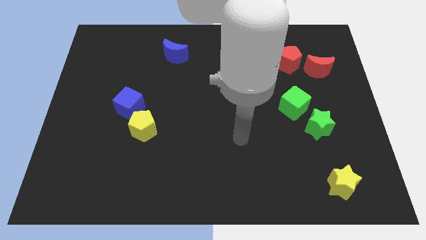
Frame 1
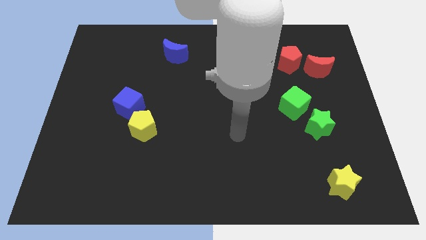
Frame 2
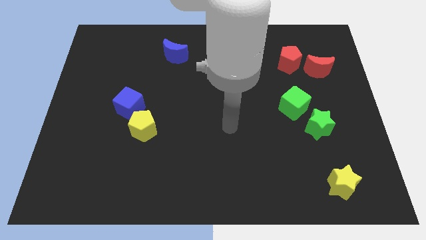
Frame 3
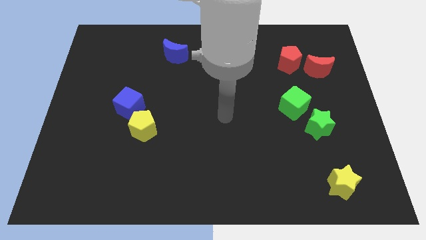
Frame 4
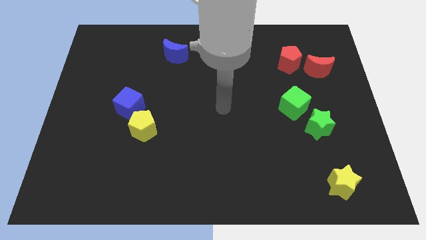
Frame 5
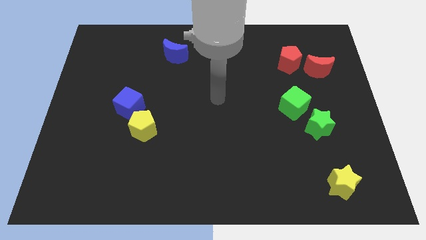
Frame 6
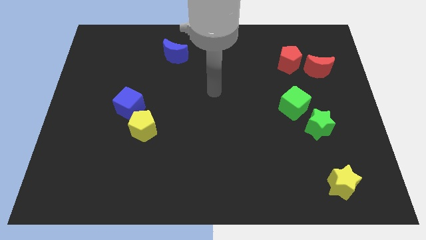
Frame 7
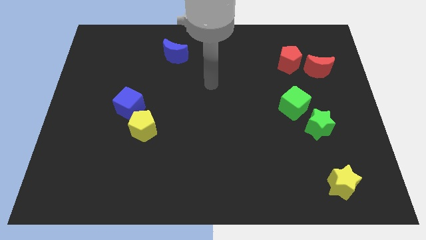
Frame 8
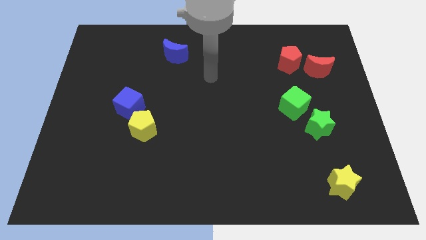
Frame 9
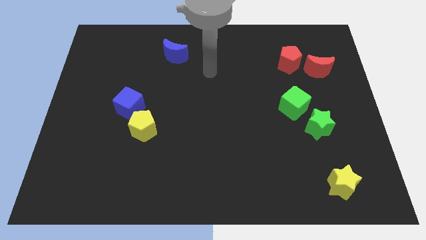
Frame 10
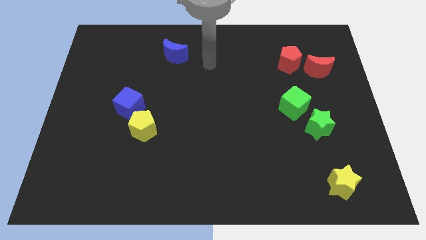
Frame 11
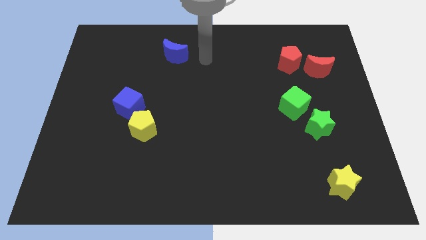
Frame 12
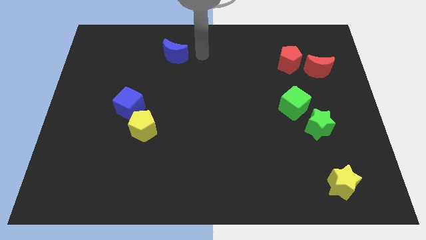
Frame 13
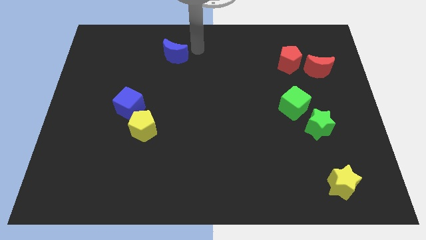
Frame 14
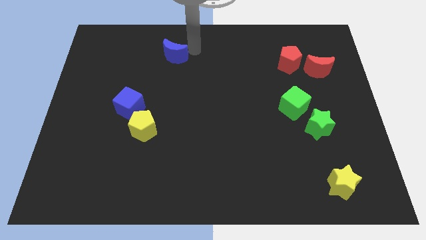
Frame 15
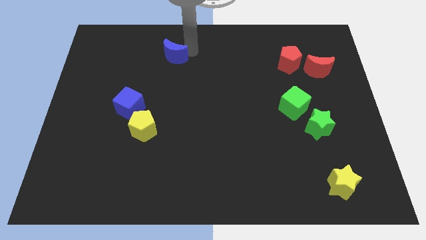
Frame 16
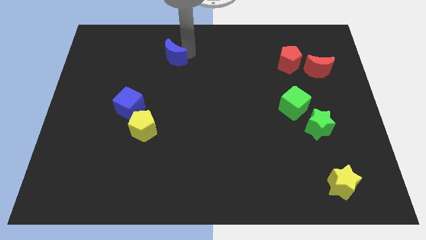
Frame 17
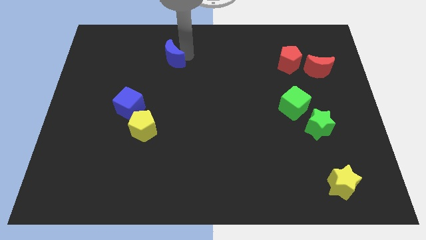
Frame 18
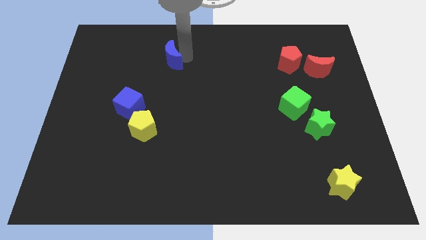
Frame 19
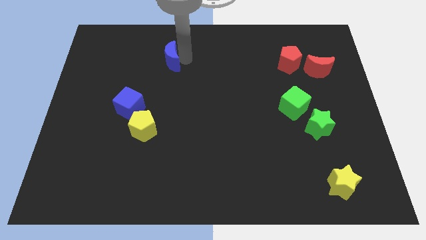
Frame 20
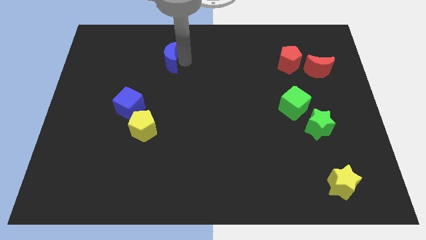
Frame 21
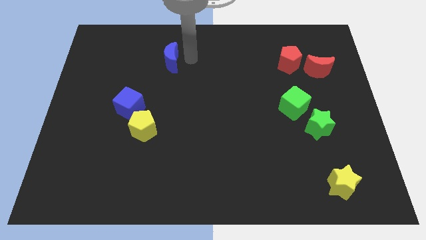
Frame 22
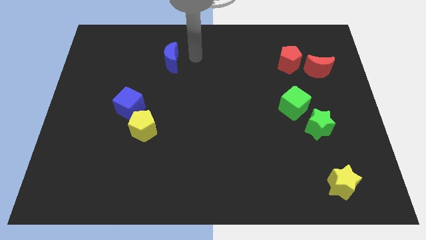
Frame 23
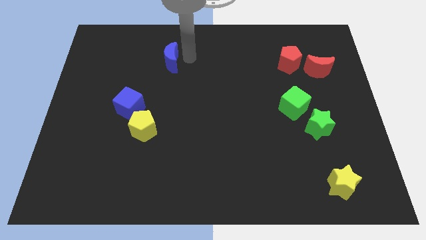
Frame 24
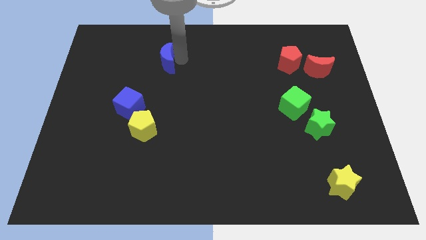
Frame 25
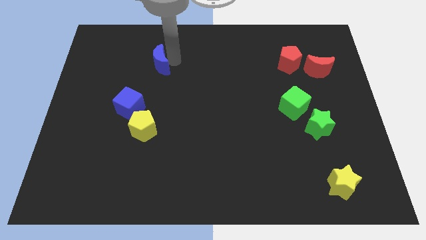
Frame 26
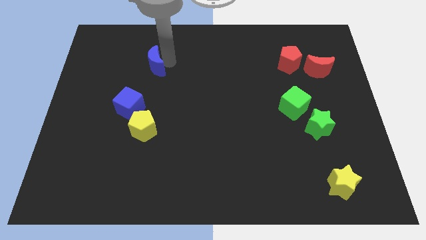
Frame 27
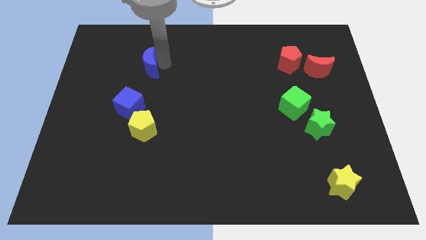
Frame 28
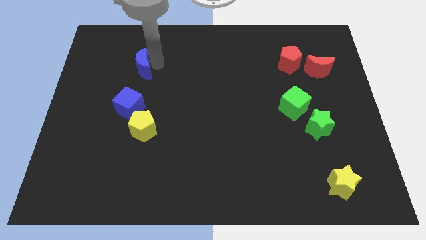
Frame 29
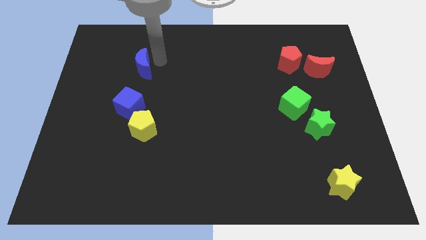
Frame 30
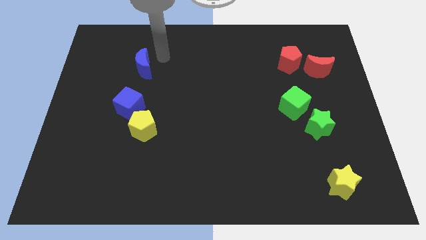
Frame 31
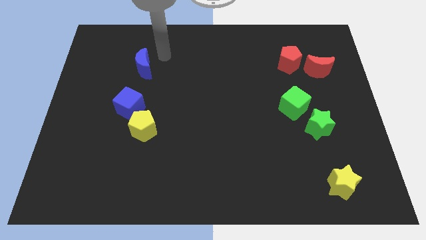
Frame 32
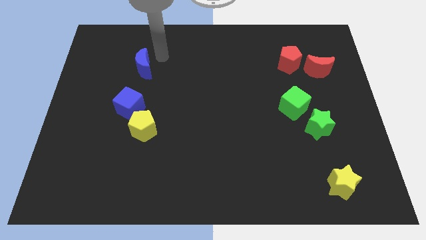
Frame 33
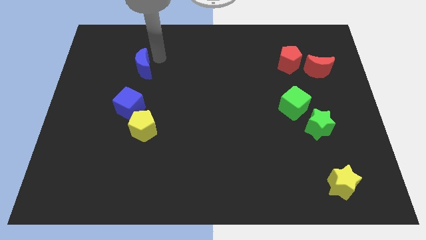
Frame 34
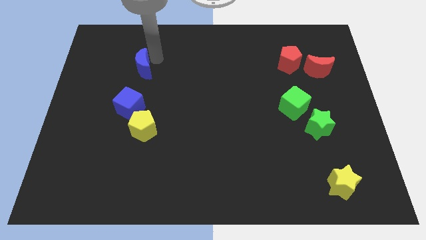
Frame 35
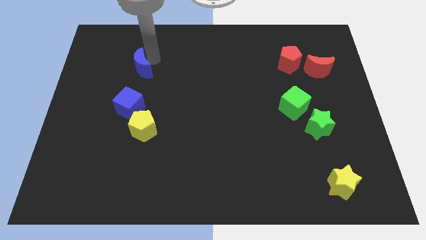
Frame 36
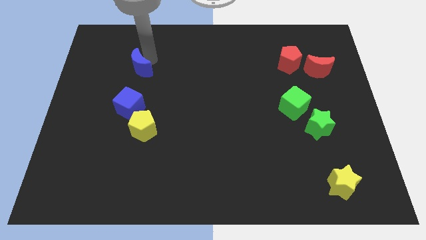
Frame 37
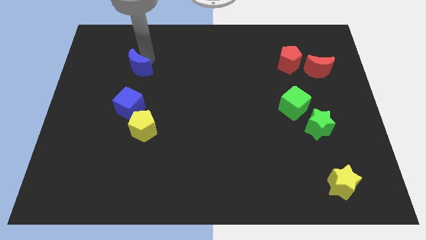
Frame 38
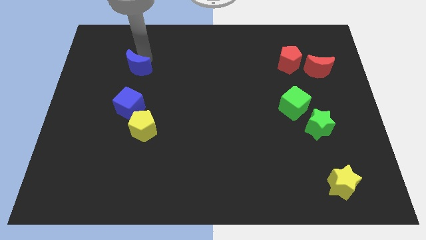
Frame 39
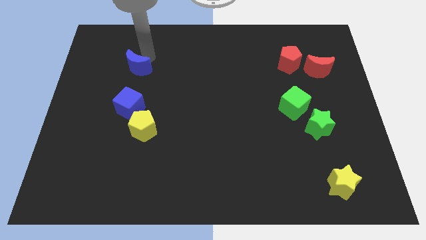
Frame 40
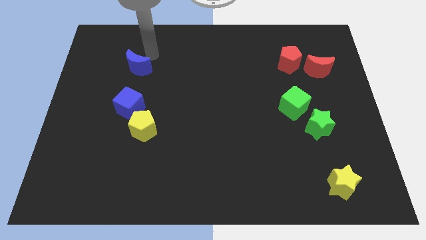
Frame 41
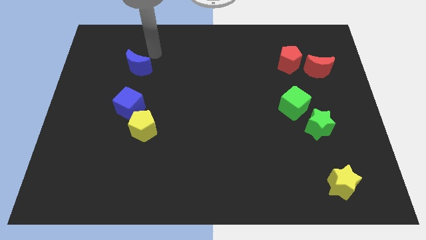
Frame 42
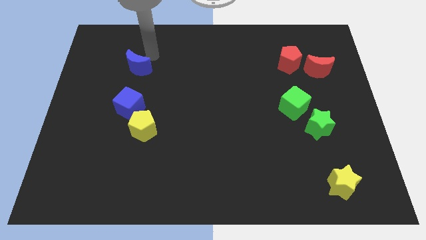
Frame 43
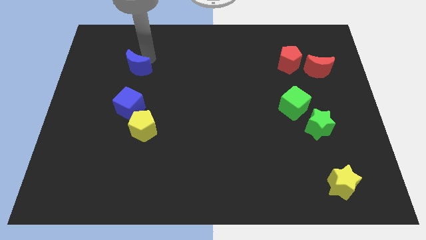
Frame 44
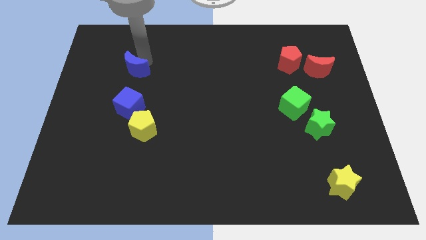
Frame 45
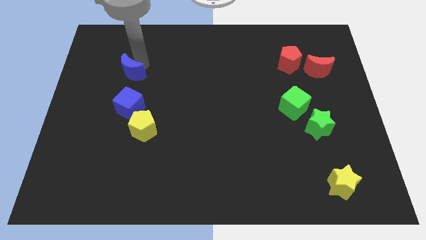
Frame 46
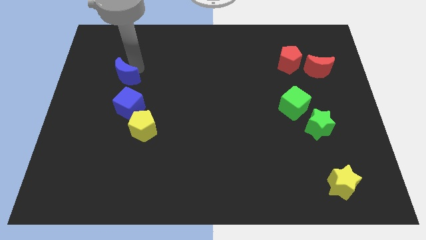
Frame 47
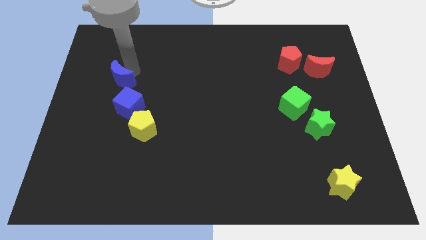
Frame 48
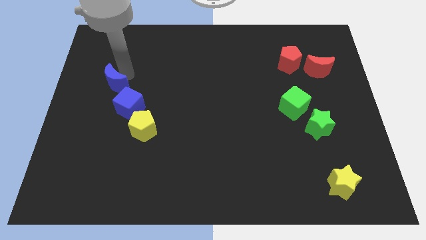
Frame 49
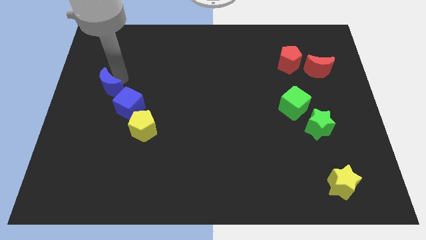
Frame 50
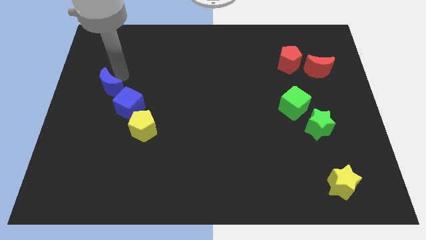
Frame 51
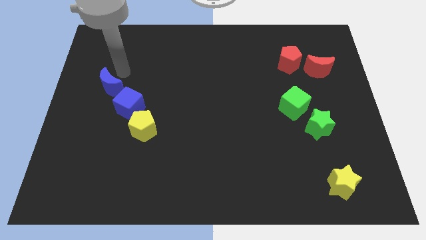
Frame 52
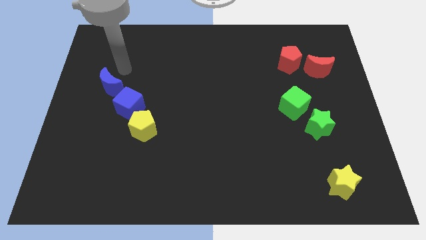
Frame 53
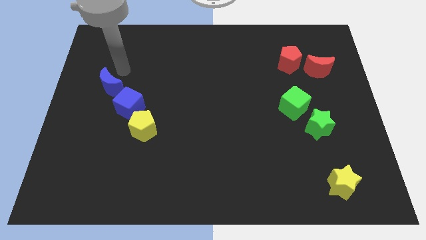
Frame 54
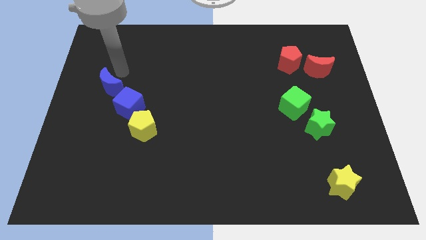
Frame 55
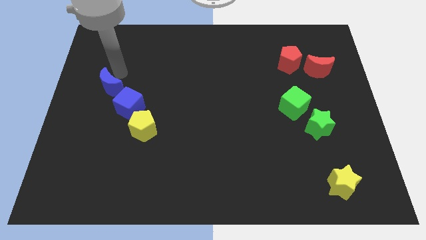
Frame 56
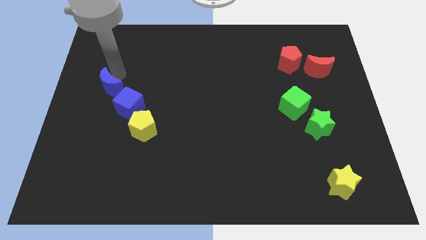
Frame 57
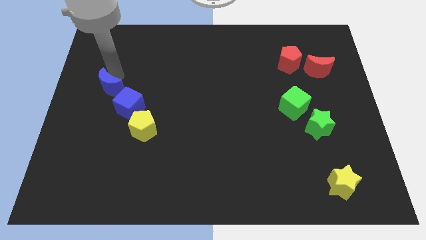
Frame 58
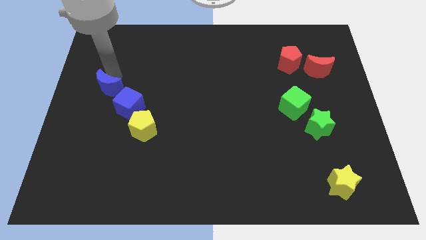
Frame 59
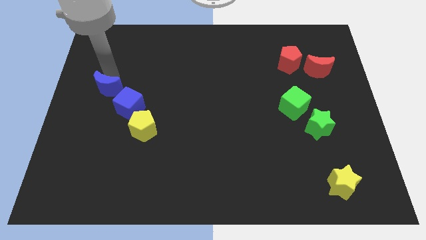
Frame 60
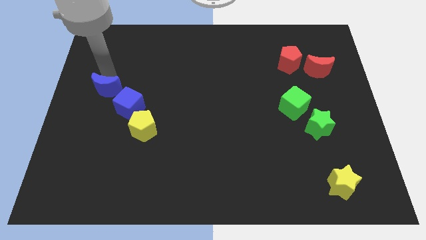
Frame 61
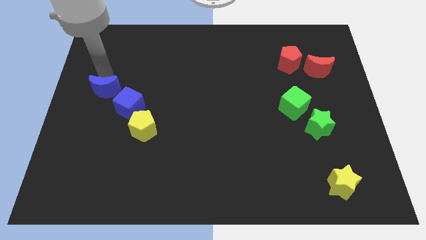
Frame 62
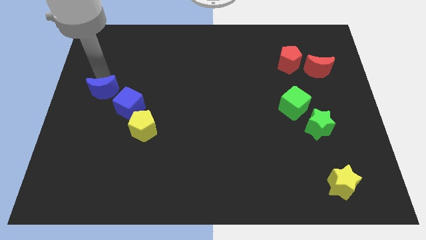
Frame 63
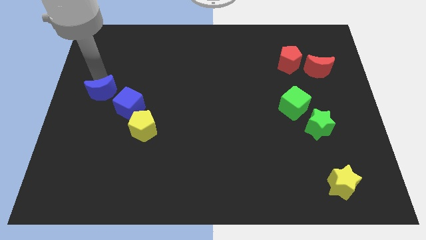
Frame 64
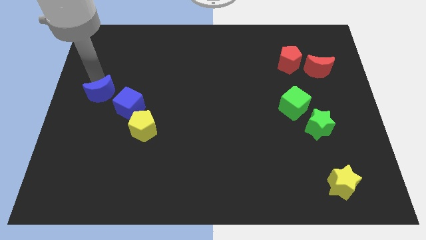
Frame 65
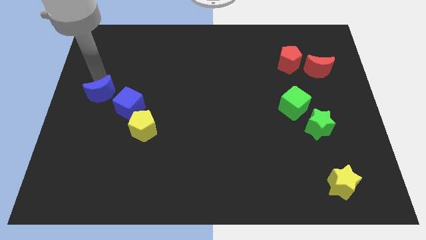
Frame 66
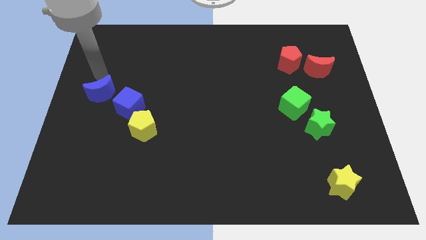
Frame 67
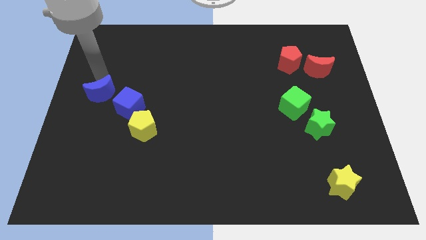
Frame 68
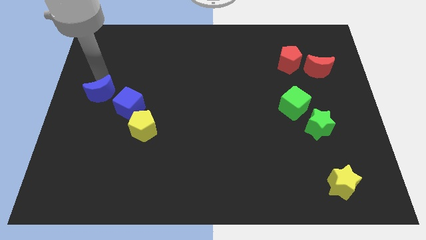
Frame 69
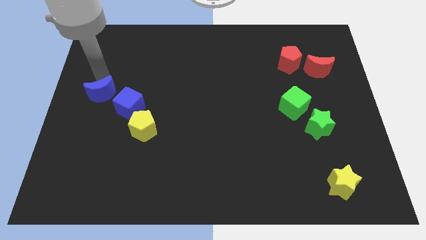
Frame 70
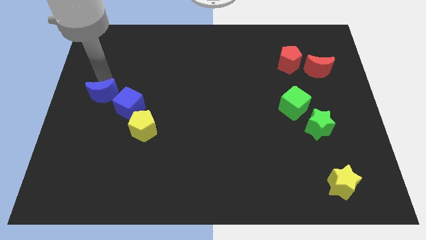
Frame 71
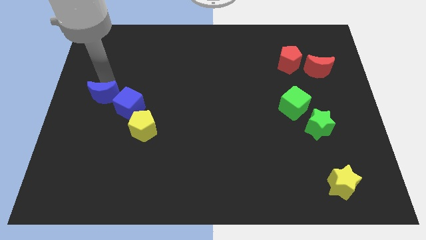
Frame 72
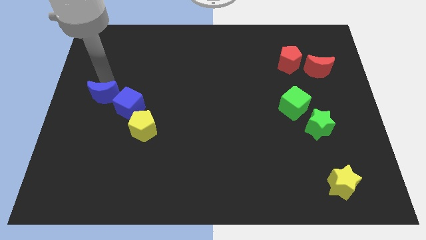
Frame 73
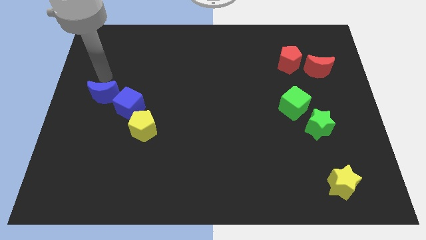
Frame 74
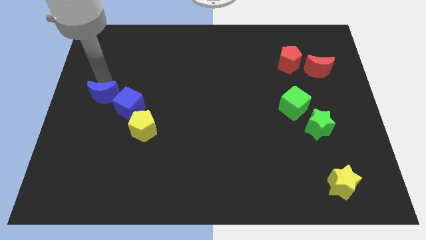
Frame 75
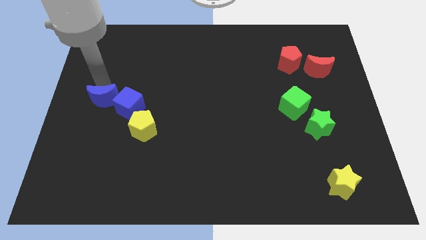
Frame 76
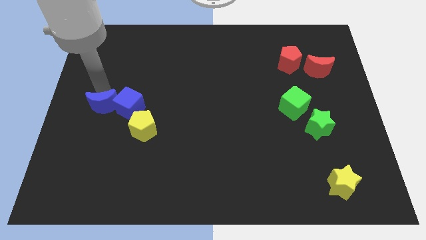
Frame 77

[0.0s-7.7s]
put the blue moon to the bottom left side of the blue cube

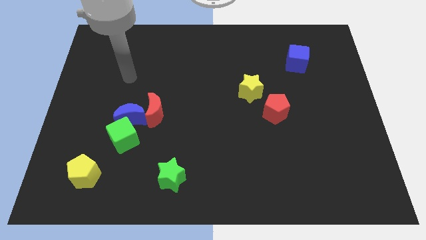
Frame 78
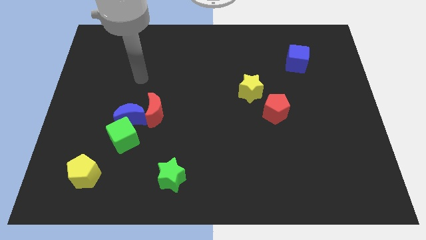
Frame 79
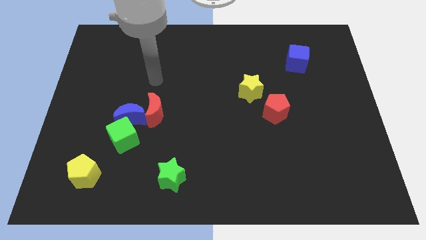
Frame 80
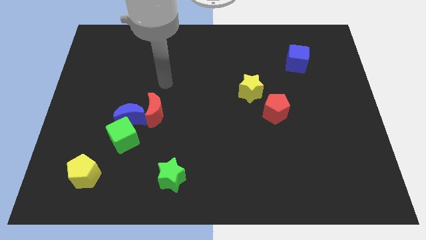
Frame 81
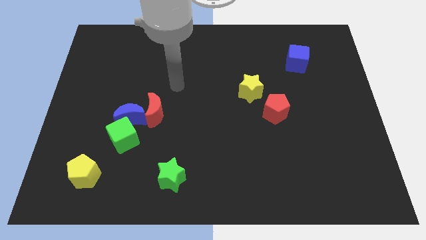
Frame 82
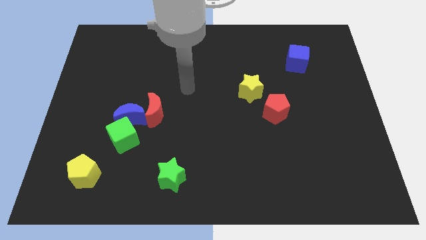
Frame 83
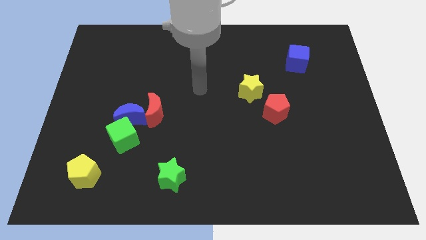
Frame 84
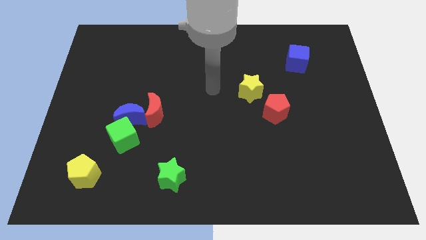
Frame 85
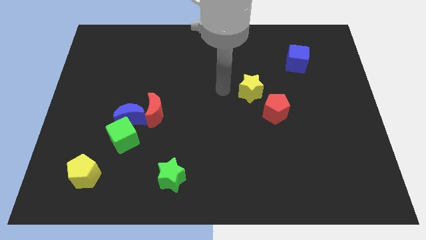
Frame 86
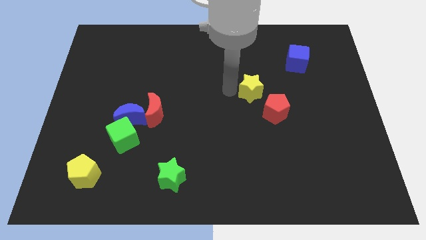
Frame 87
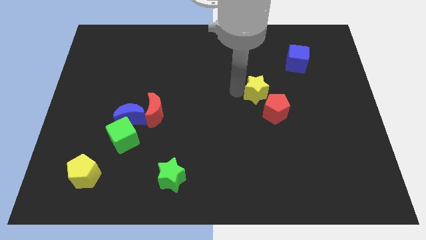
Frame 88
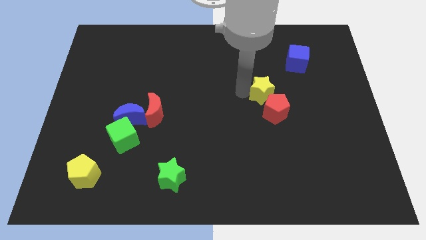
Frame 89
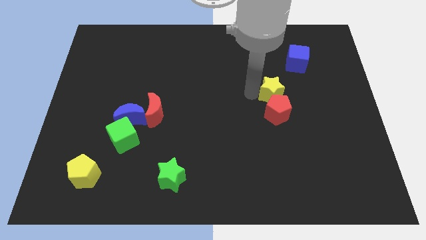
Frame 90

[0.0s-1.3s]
move the yellow star to the top right side of the red pentagon
